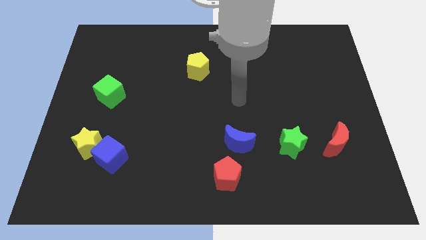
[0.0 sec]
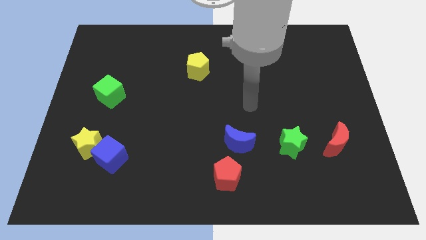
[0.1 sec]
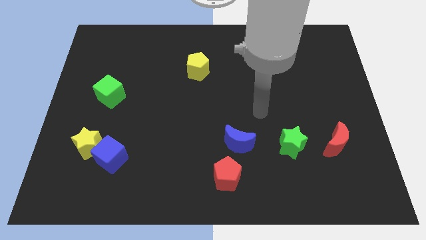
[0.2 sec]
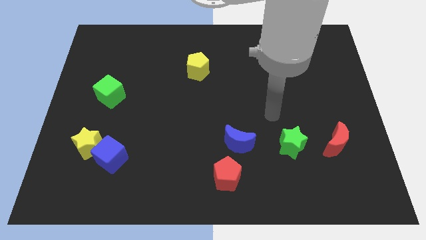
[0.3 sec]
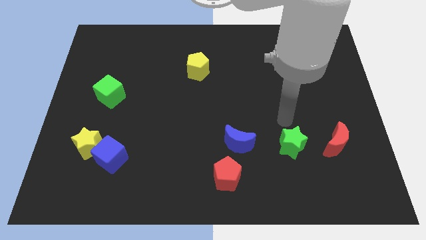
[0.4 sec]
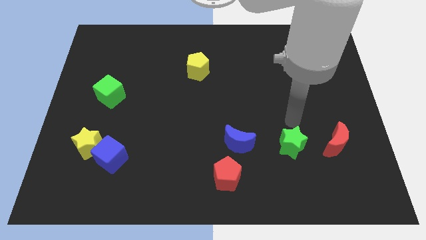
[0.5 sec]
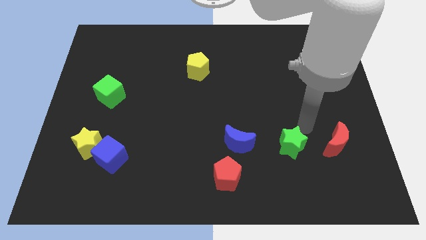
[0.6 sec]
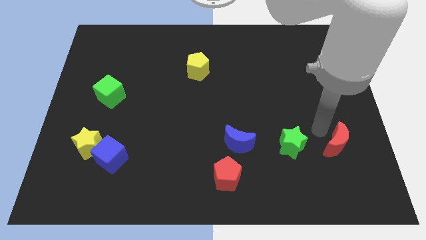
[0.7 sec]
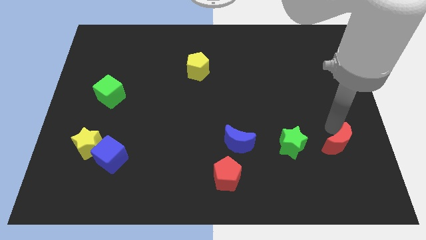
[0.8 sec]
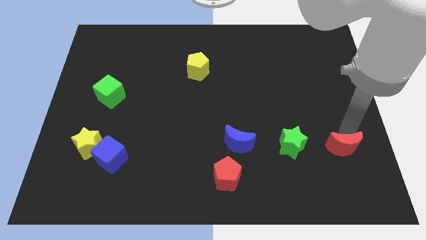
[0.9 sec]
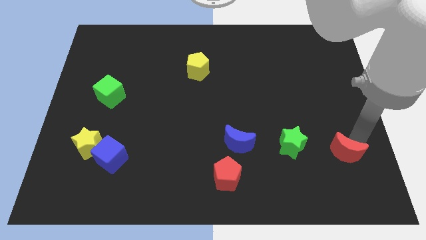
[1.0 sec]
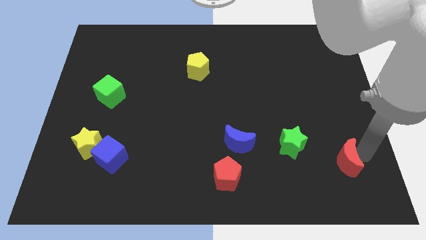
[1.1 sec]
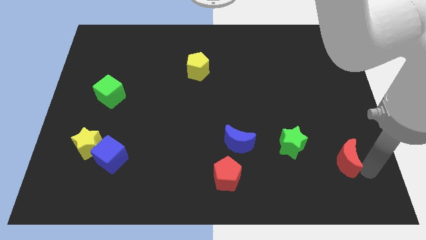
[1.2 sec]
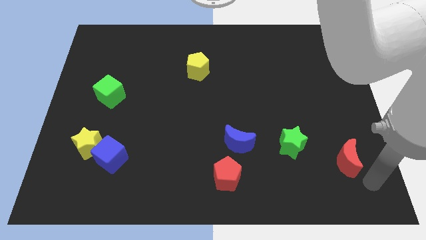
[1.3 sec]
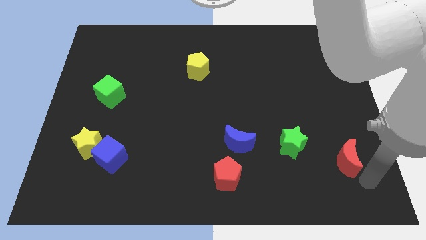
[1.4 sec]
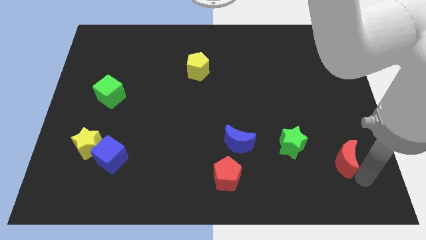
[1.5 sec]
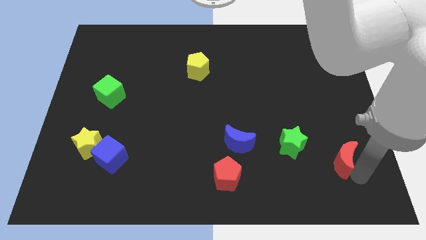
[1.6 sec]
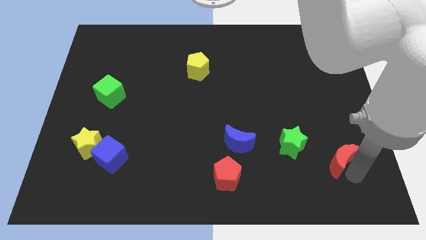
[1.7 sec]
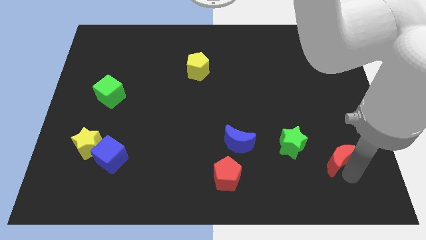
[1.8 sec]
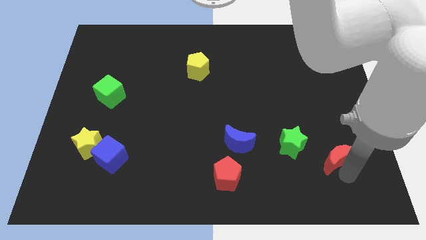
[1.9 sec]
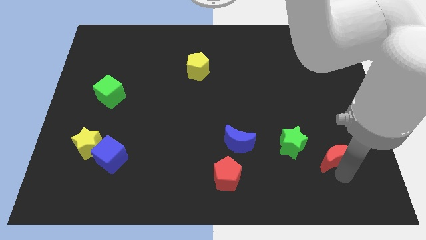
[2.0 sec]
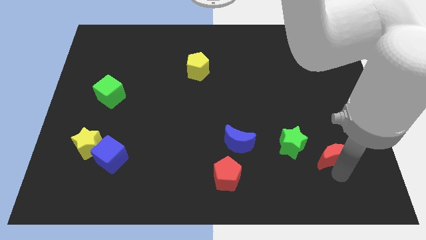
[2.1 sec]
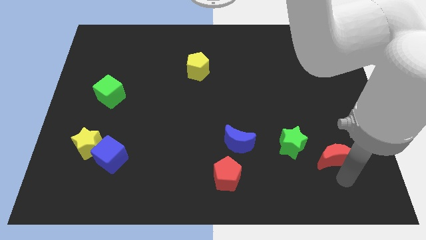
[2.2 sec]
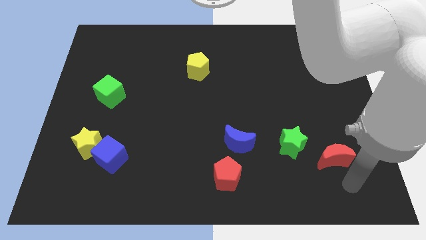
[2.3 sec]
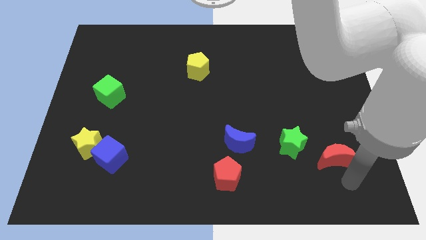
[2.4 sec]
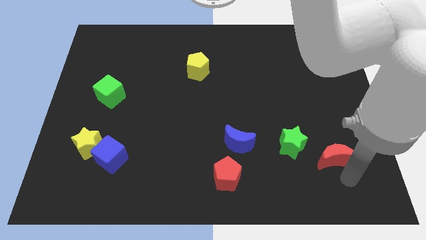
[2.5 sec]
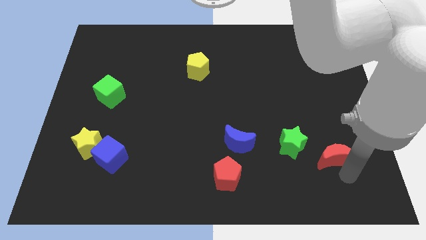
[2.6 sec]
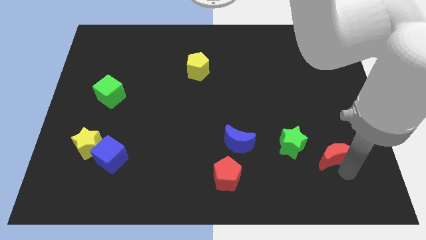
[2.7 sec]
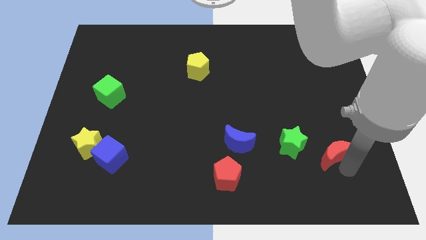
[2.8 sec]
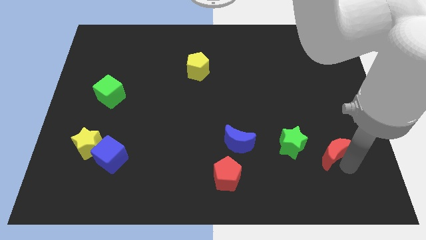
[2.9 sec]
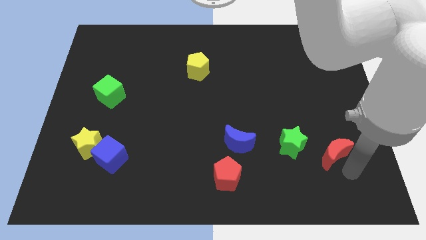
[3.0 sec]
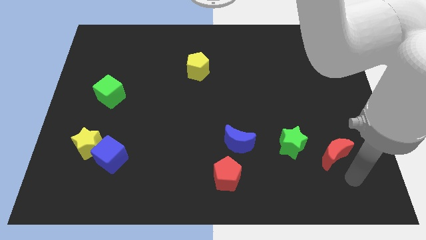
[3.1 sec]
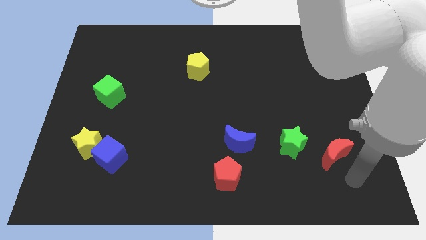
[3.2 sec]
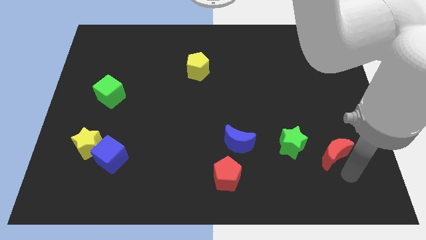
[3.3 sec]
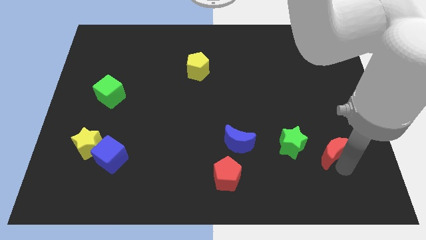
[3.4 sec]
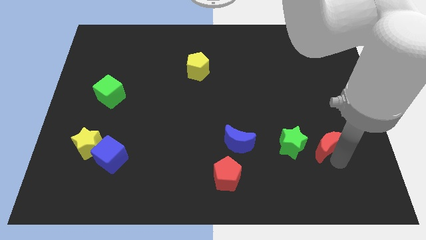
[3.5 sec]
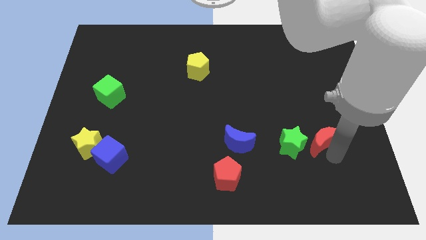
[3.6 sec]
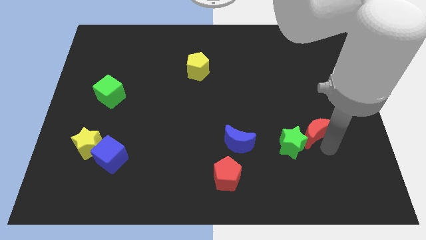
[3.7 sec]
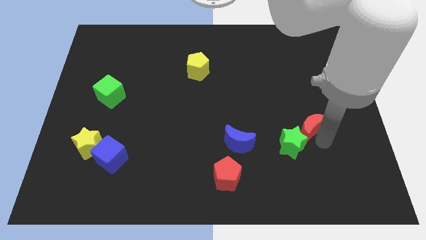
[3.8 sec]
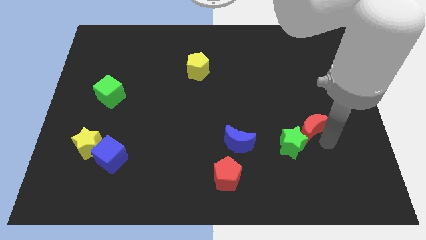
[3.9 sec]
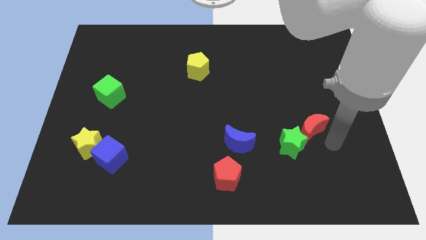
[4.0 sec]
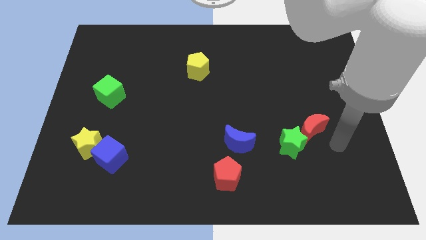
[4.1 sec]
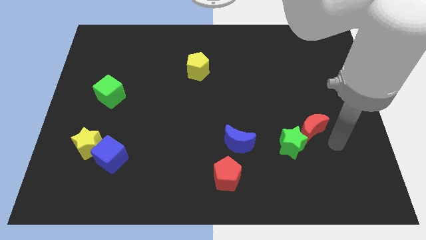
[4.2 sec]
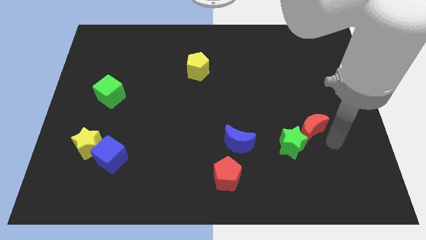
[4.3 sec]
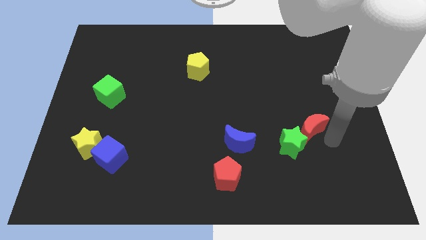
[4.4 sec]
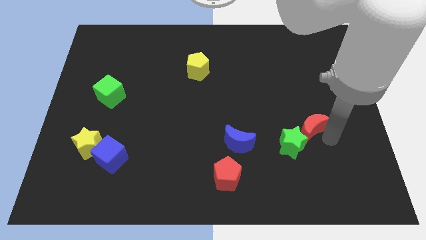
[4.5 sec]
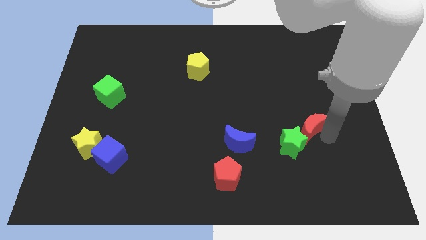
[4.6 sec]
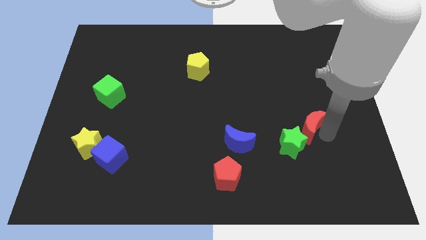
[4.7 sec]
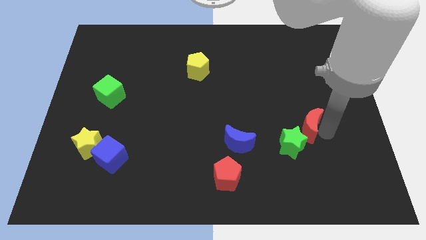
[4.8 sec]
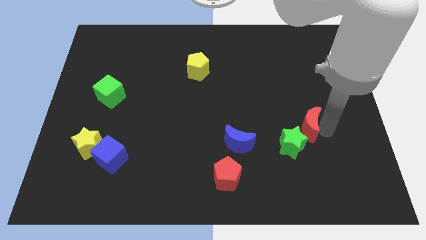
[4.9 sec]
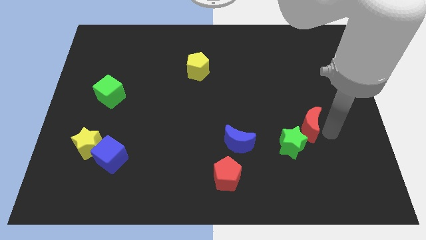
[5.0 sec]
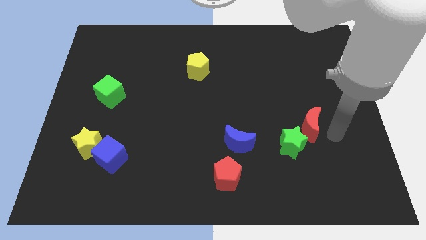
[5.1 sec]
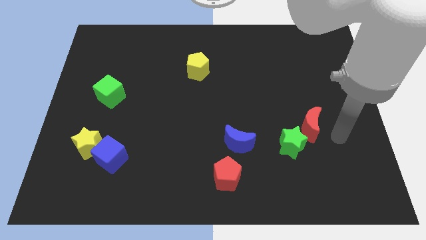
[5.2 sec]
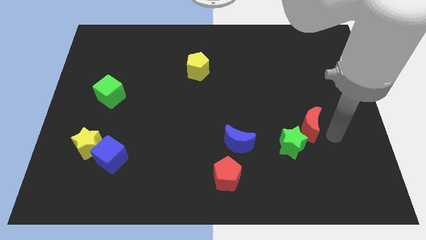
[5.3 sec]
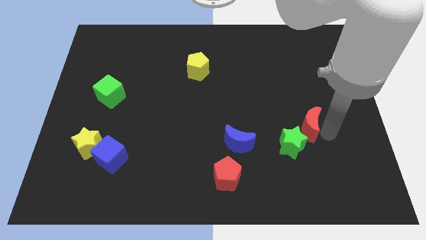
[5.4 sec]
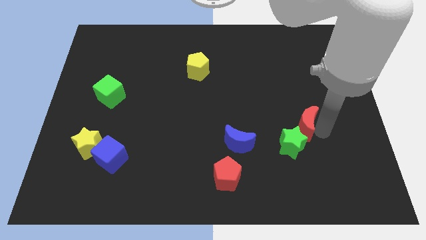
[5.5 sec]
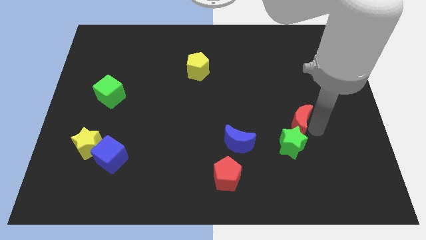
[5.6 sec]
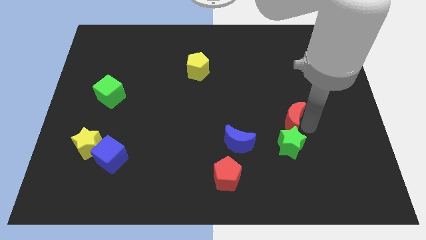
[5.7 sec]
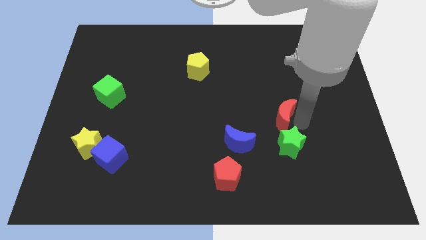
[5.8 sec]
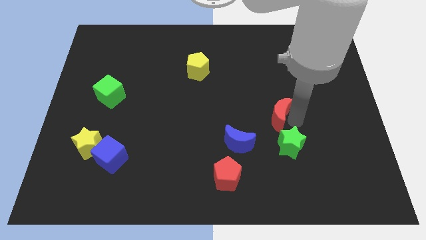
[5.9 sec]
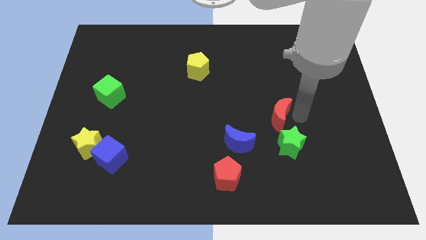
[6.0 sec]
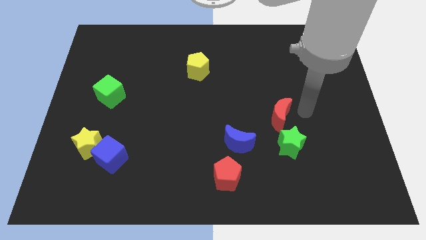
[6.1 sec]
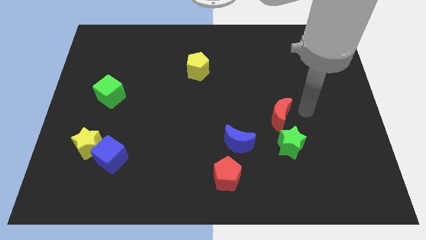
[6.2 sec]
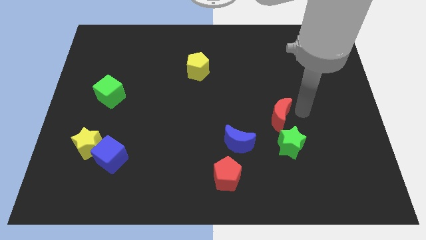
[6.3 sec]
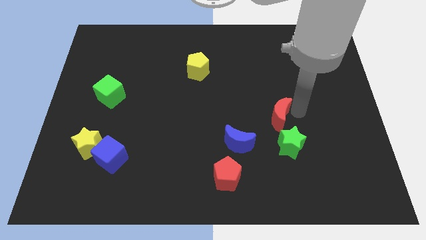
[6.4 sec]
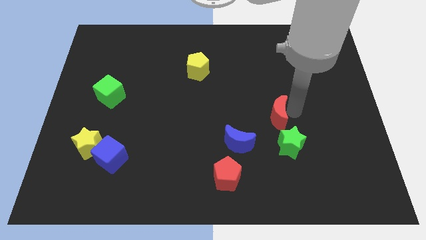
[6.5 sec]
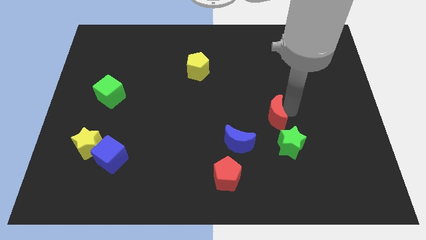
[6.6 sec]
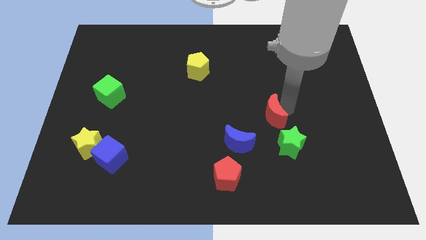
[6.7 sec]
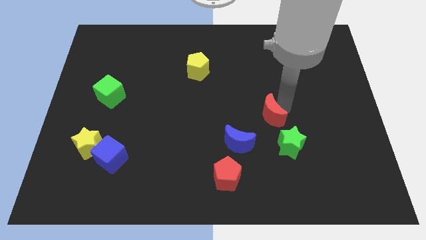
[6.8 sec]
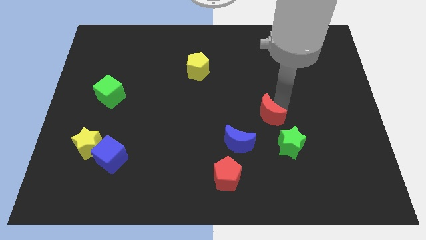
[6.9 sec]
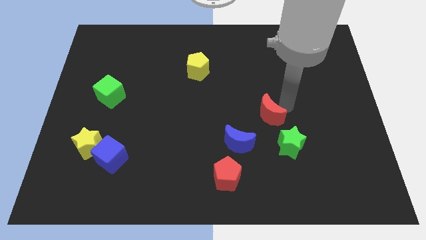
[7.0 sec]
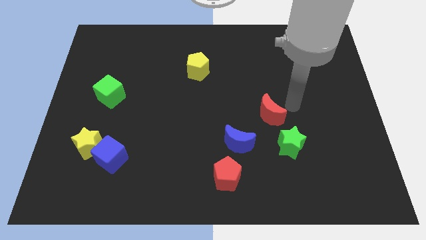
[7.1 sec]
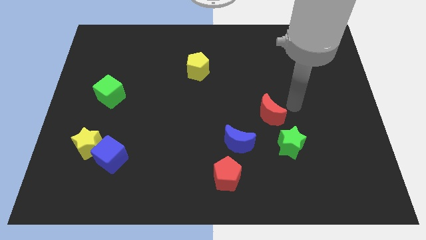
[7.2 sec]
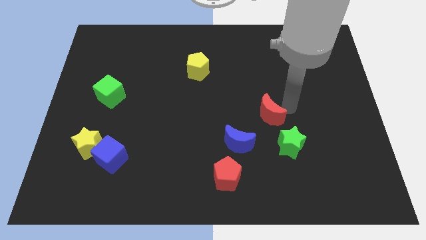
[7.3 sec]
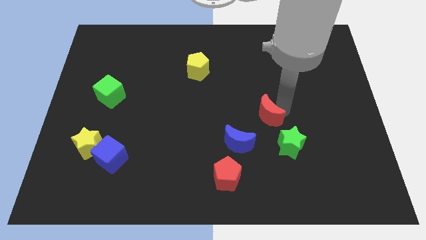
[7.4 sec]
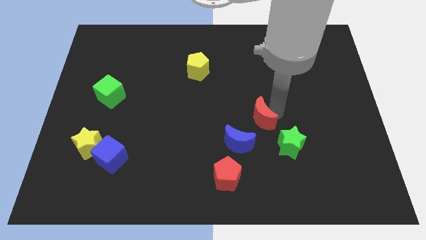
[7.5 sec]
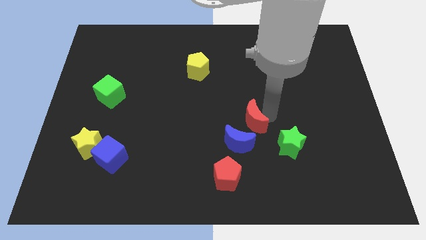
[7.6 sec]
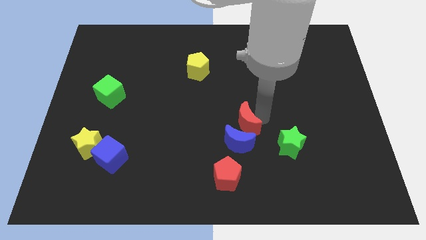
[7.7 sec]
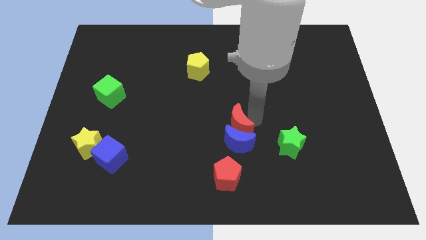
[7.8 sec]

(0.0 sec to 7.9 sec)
push the red moon above the red pentagon
